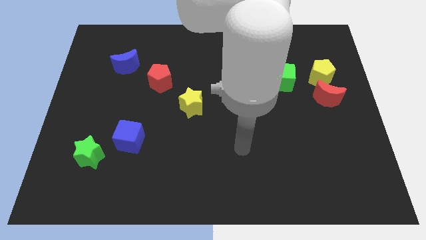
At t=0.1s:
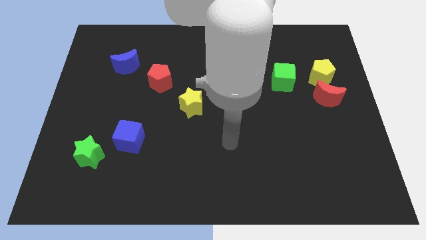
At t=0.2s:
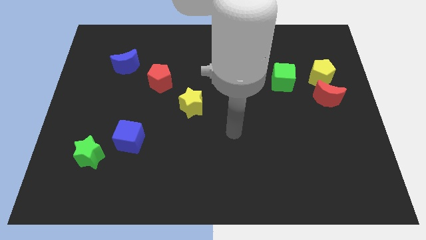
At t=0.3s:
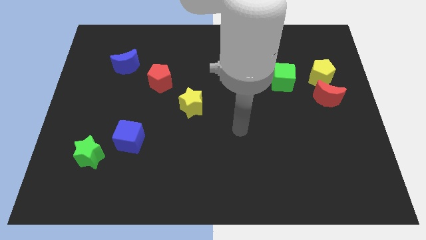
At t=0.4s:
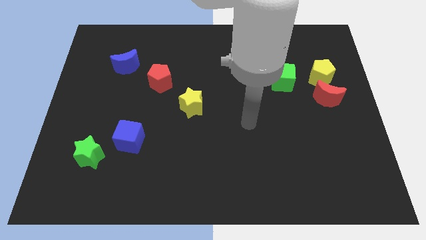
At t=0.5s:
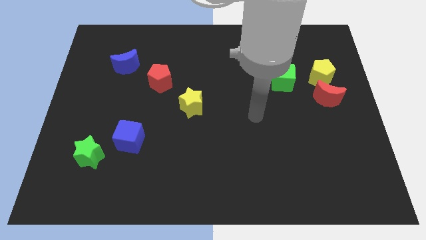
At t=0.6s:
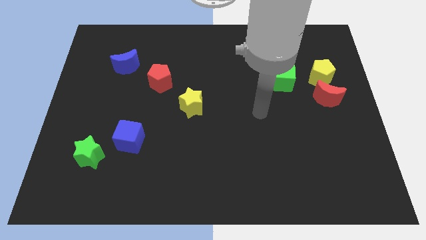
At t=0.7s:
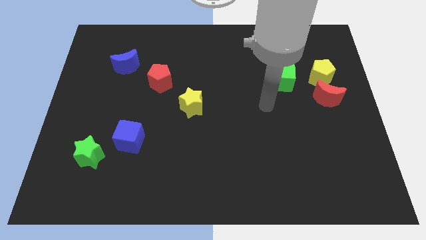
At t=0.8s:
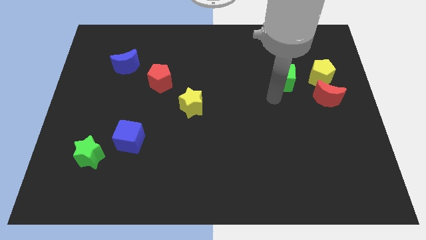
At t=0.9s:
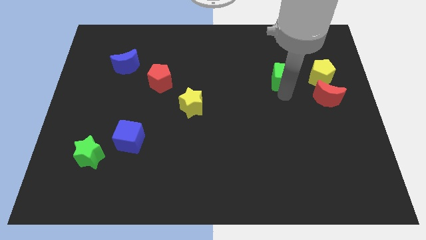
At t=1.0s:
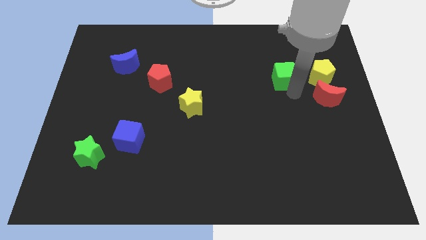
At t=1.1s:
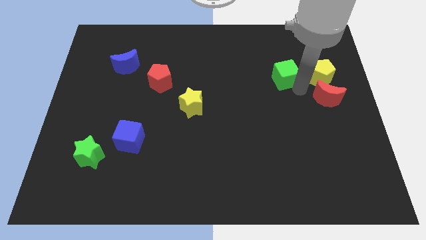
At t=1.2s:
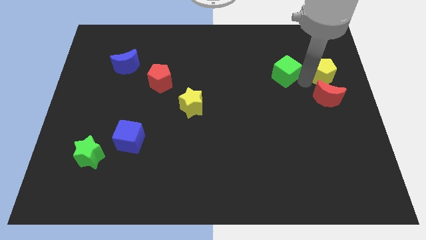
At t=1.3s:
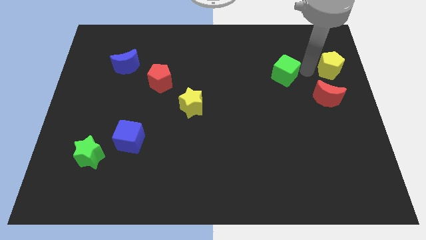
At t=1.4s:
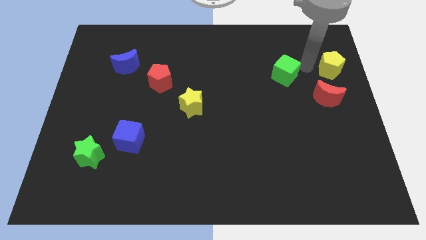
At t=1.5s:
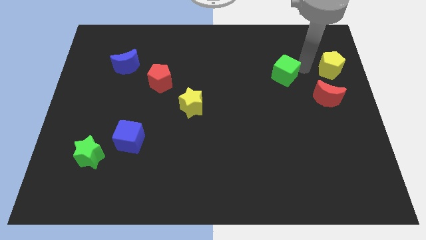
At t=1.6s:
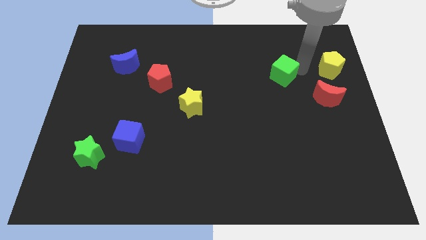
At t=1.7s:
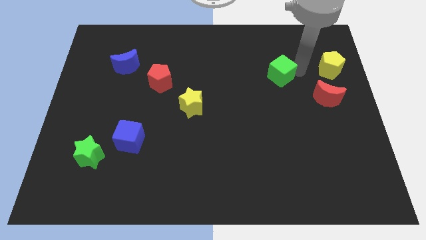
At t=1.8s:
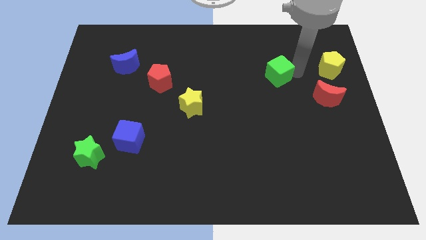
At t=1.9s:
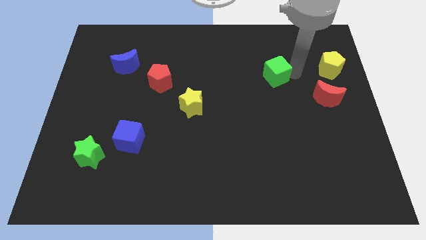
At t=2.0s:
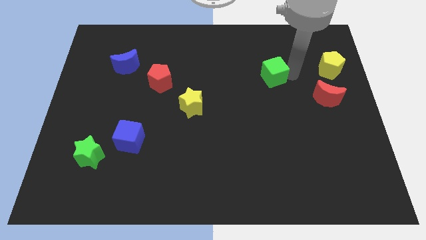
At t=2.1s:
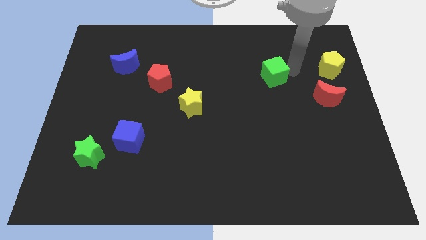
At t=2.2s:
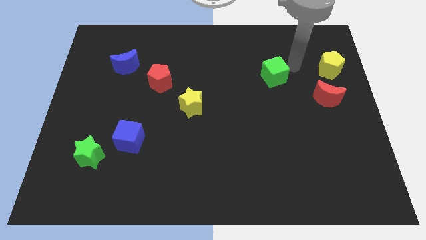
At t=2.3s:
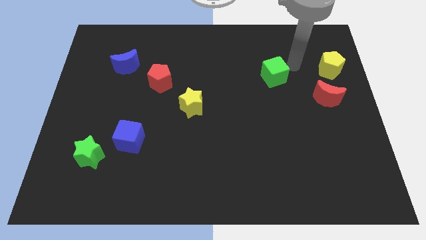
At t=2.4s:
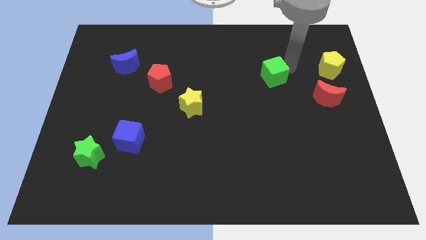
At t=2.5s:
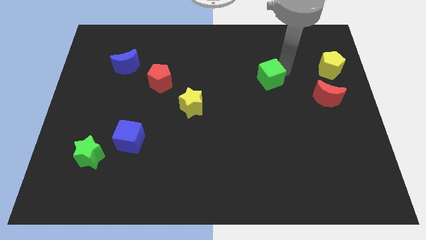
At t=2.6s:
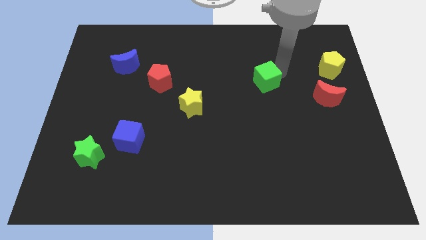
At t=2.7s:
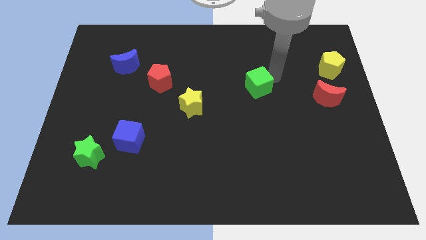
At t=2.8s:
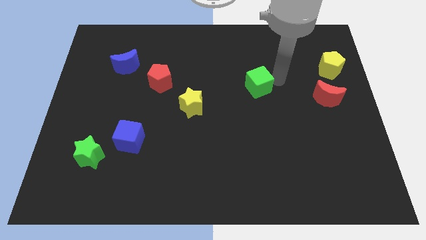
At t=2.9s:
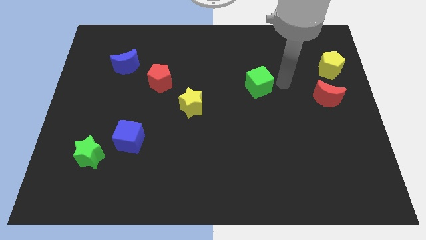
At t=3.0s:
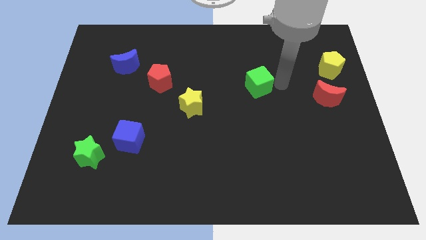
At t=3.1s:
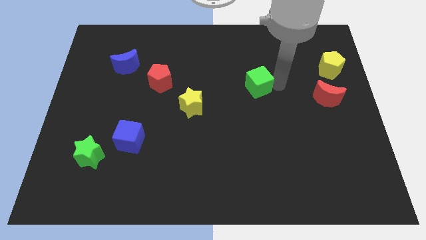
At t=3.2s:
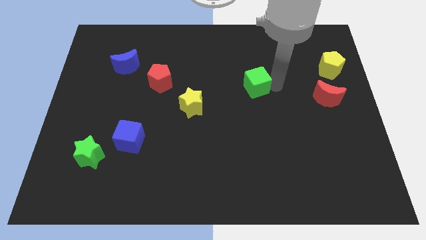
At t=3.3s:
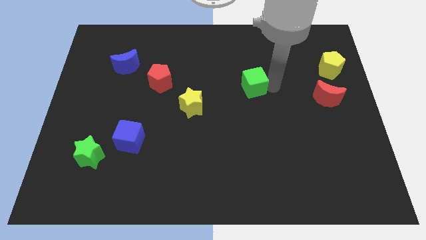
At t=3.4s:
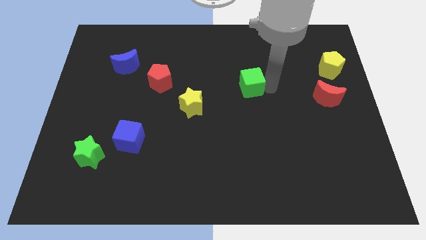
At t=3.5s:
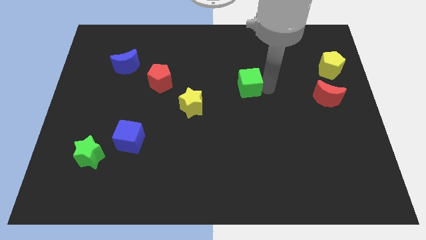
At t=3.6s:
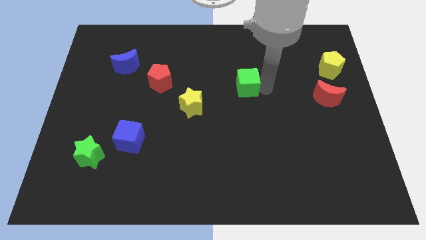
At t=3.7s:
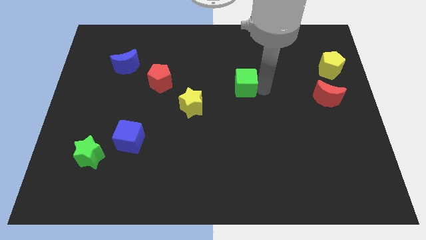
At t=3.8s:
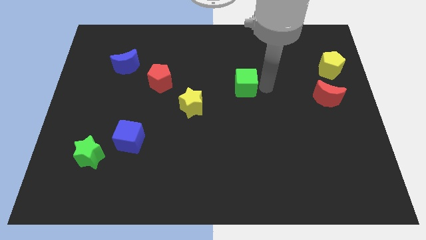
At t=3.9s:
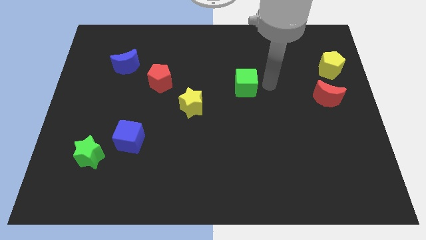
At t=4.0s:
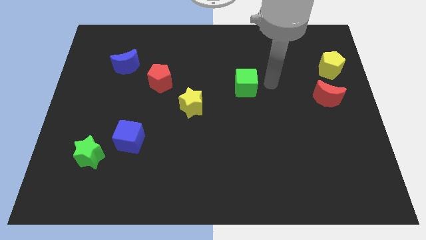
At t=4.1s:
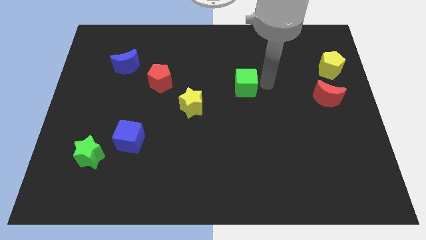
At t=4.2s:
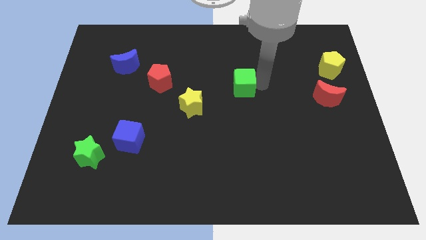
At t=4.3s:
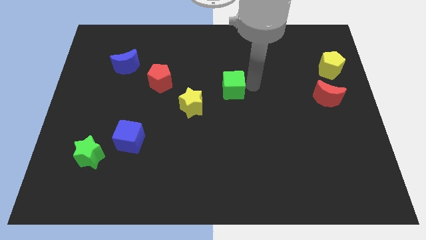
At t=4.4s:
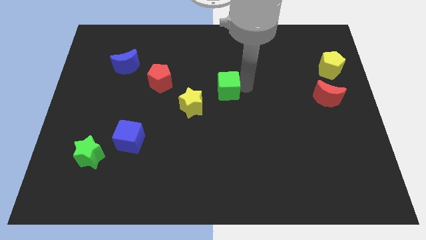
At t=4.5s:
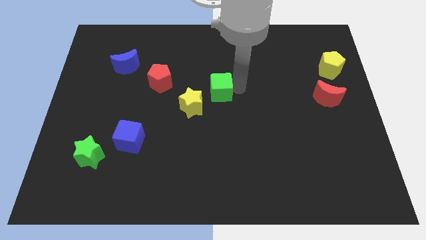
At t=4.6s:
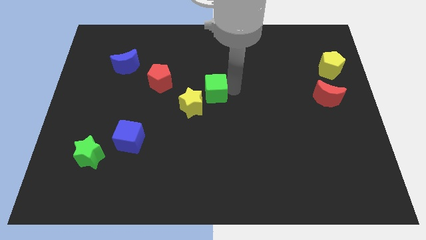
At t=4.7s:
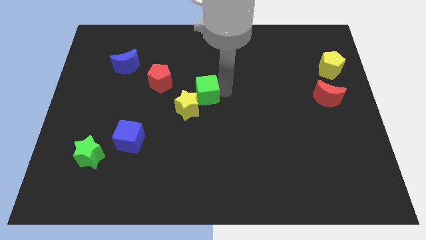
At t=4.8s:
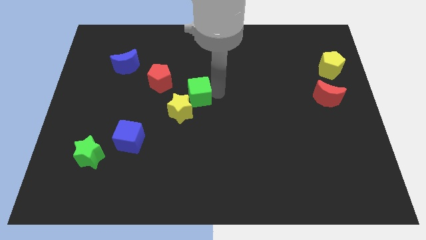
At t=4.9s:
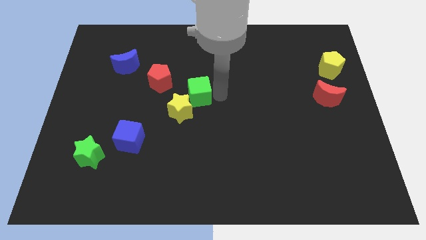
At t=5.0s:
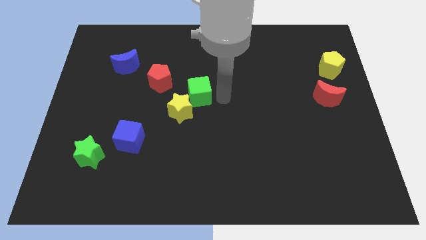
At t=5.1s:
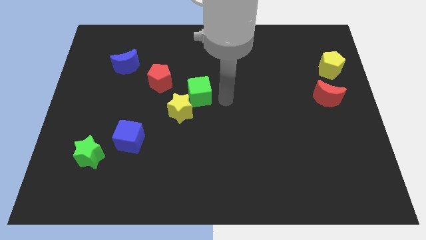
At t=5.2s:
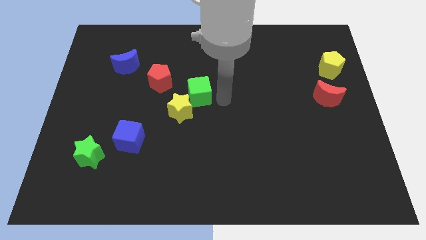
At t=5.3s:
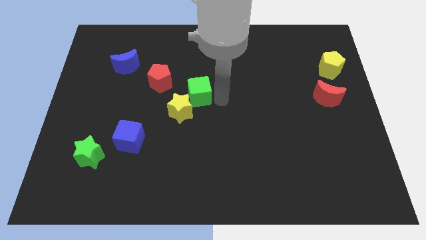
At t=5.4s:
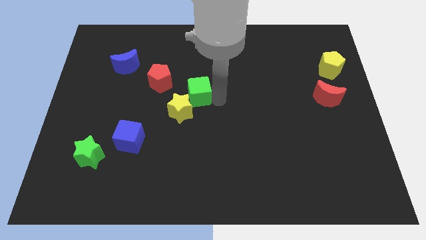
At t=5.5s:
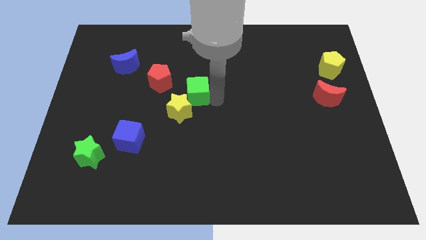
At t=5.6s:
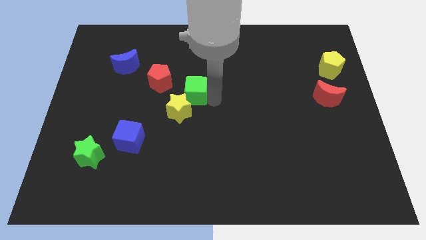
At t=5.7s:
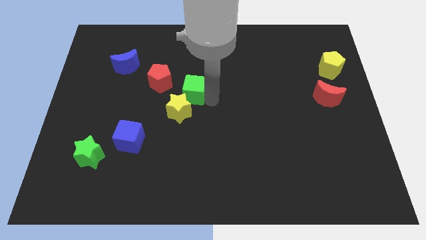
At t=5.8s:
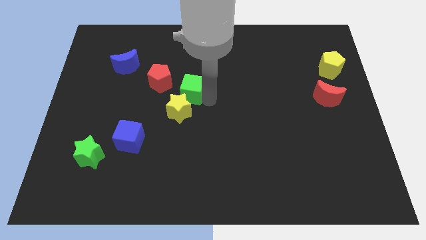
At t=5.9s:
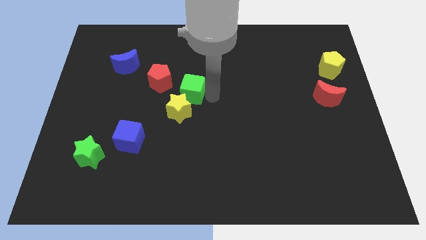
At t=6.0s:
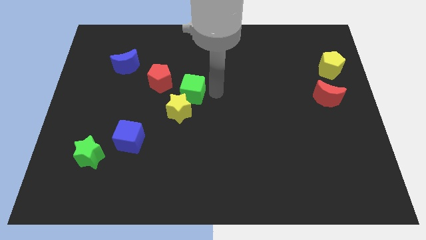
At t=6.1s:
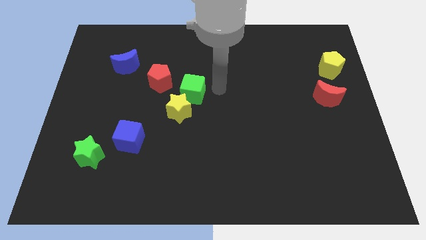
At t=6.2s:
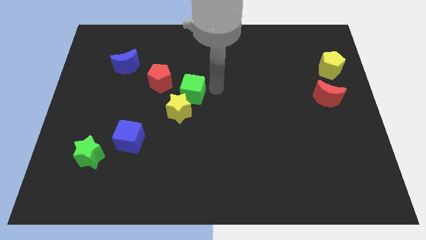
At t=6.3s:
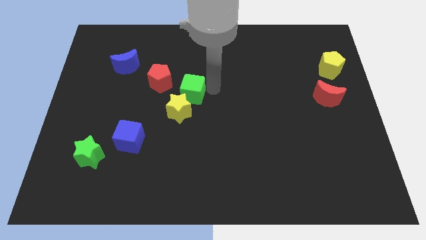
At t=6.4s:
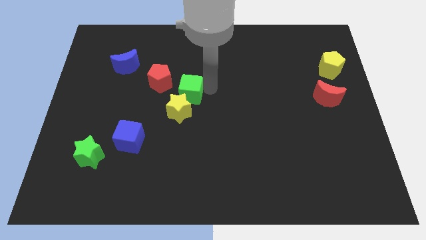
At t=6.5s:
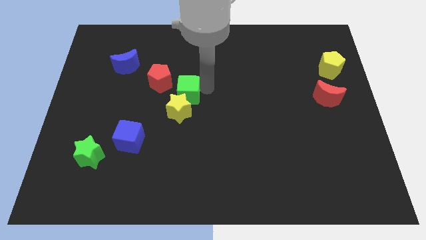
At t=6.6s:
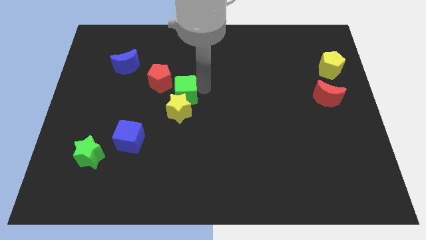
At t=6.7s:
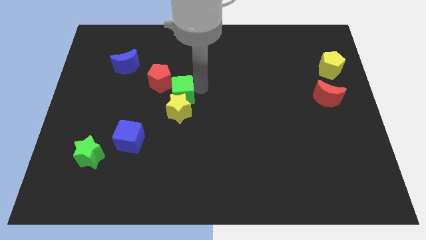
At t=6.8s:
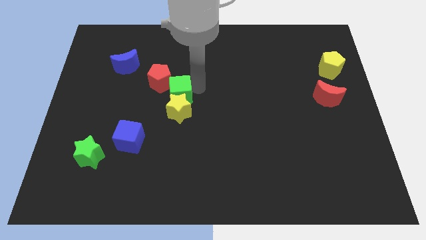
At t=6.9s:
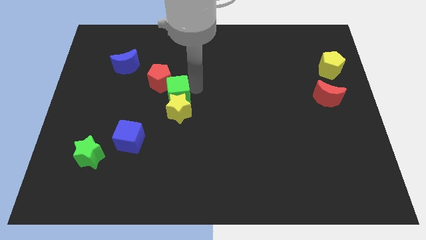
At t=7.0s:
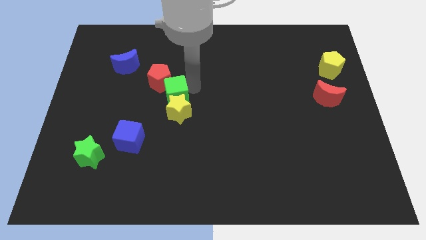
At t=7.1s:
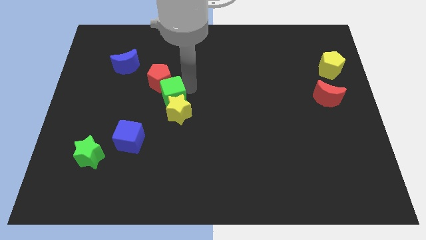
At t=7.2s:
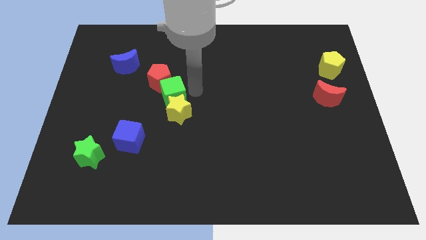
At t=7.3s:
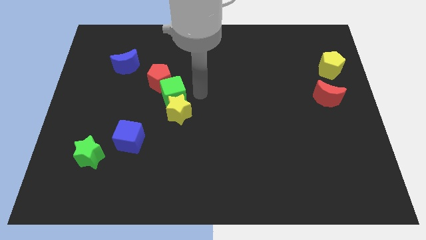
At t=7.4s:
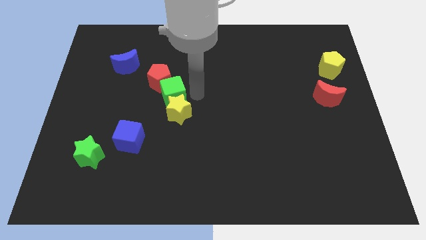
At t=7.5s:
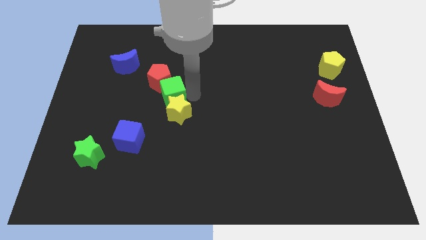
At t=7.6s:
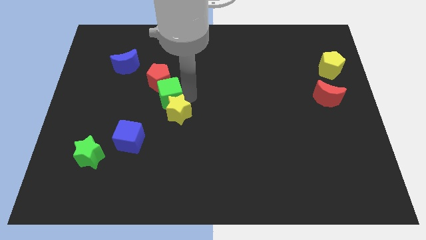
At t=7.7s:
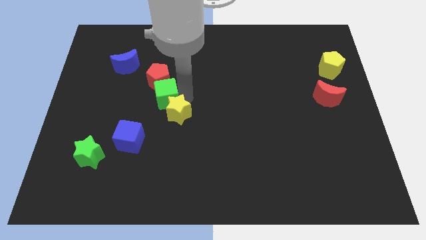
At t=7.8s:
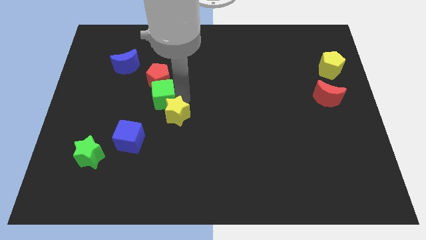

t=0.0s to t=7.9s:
slide the green cube to the bottom left side of the red pentagon
